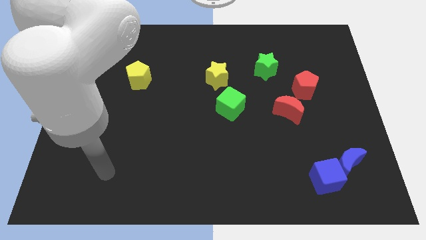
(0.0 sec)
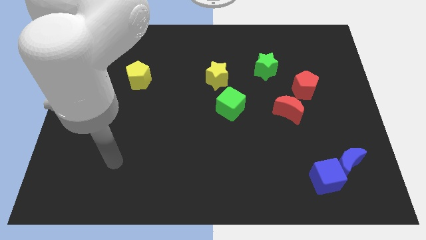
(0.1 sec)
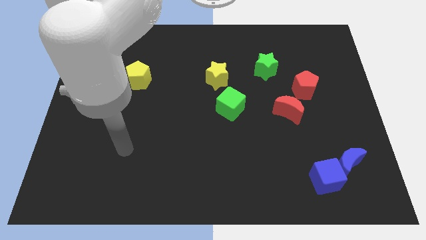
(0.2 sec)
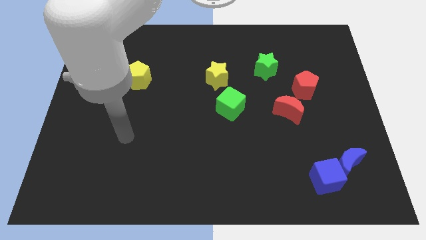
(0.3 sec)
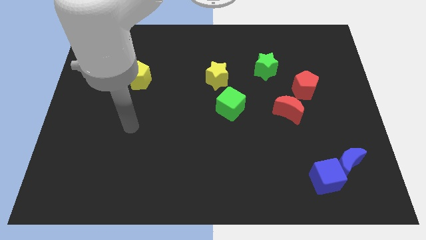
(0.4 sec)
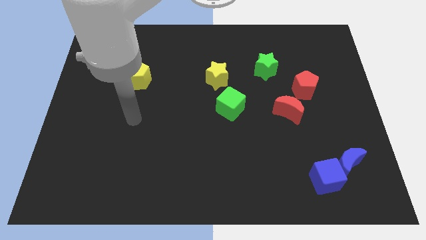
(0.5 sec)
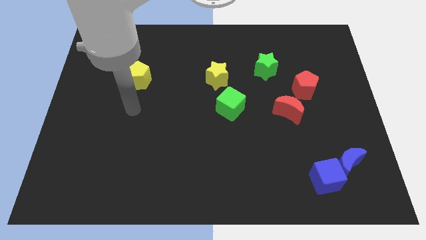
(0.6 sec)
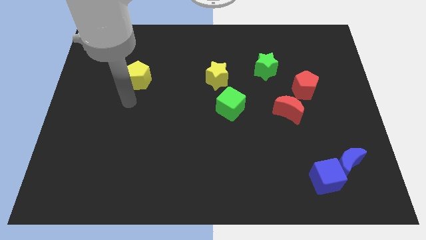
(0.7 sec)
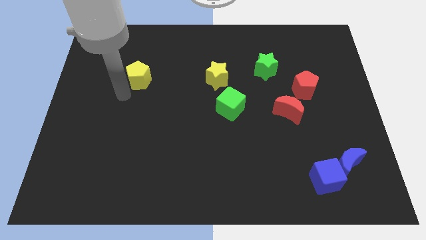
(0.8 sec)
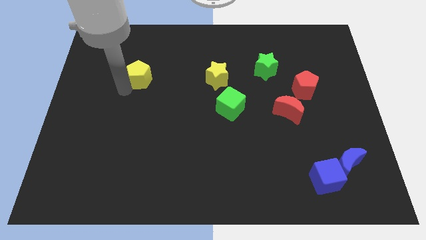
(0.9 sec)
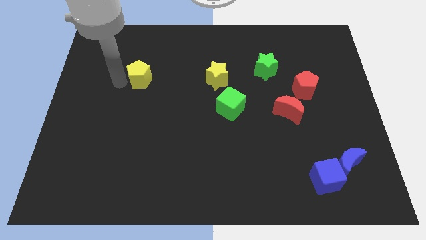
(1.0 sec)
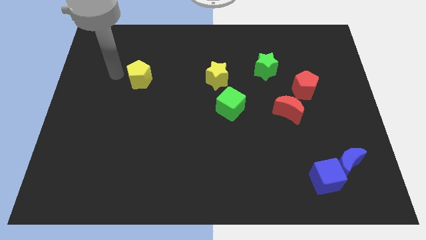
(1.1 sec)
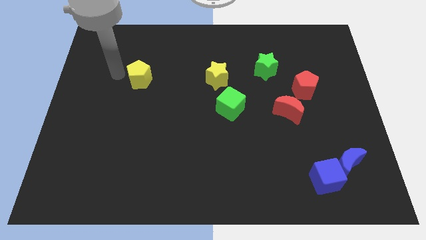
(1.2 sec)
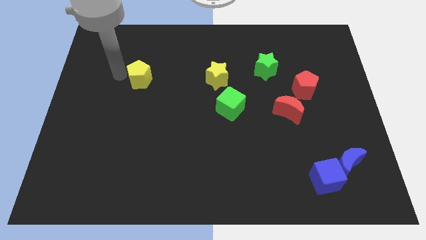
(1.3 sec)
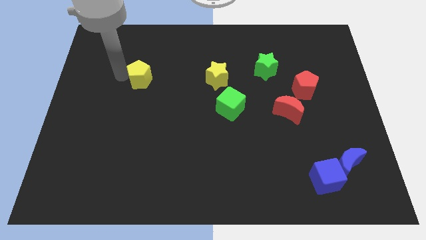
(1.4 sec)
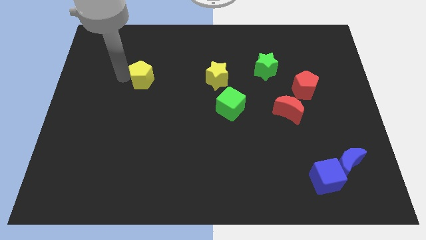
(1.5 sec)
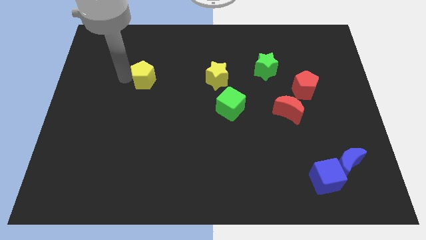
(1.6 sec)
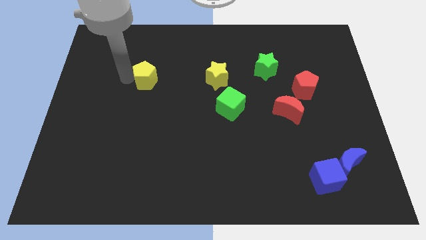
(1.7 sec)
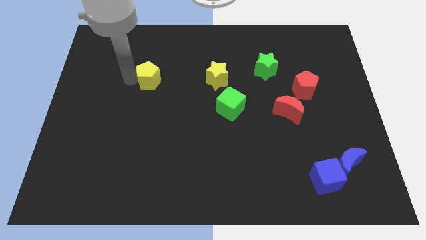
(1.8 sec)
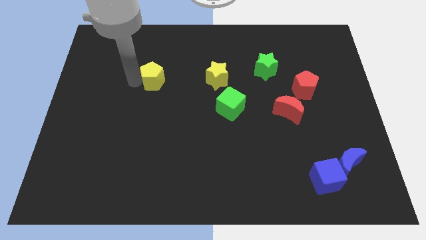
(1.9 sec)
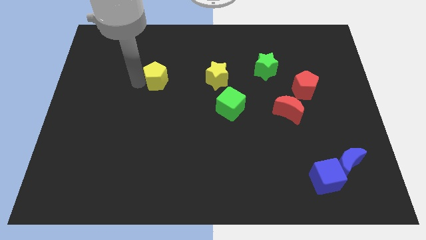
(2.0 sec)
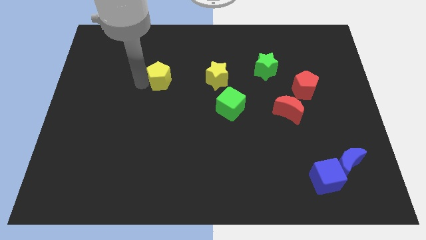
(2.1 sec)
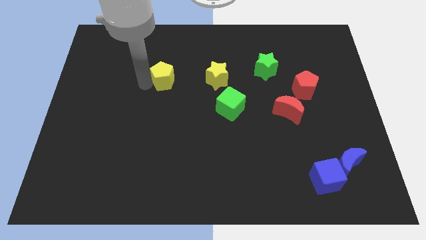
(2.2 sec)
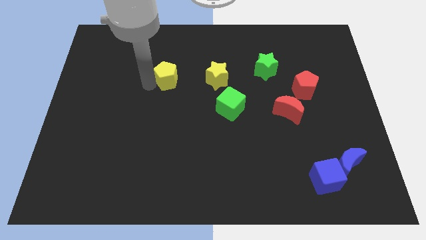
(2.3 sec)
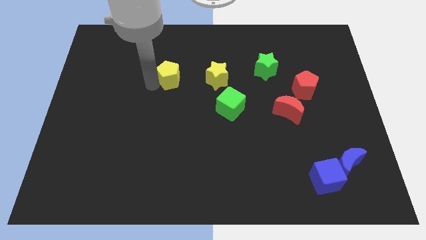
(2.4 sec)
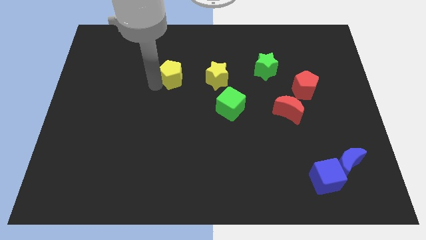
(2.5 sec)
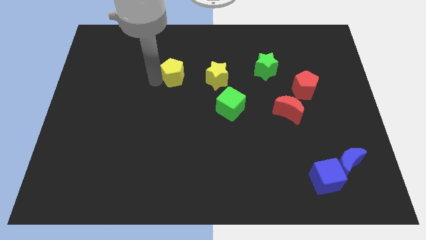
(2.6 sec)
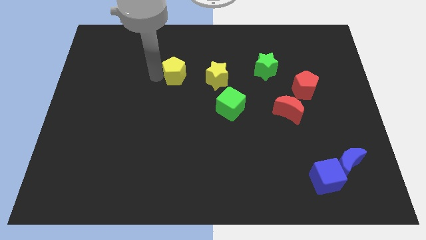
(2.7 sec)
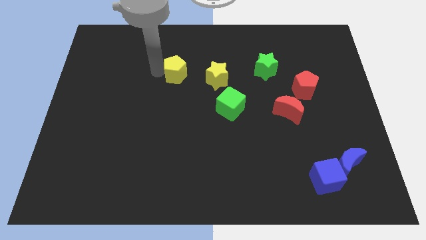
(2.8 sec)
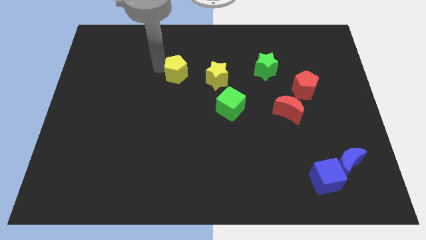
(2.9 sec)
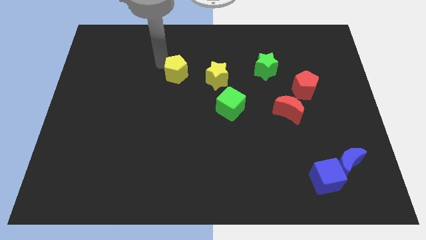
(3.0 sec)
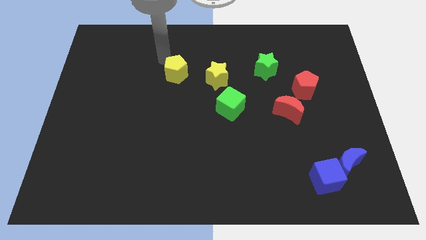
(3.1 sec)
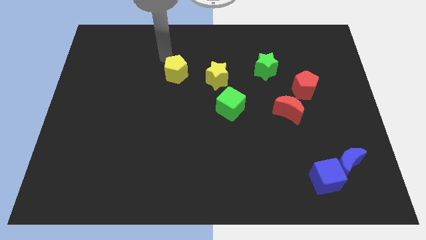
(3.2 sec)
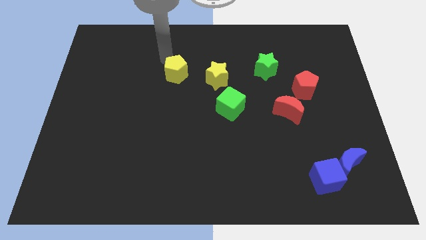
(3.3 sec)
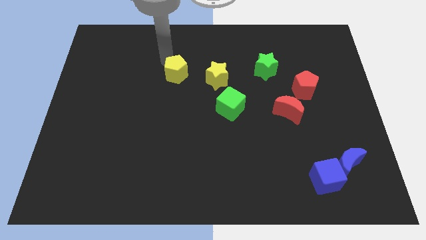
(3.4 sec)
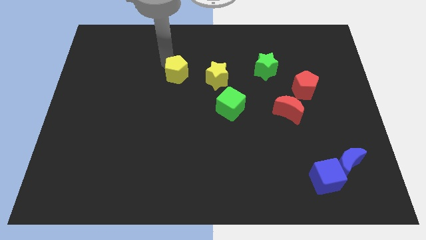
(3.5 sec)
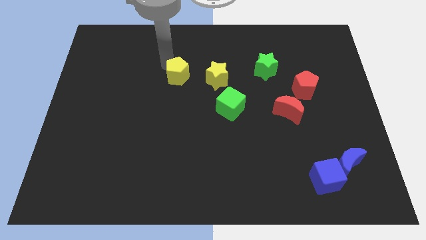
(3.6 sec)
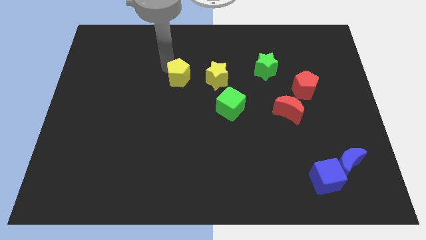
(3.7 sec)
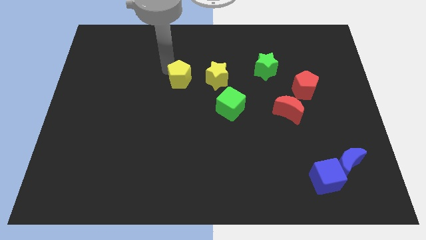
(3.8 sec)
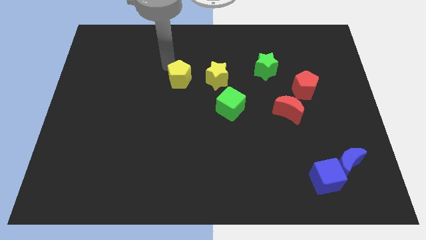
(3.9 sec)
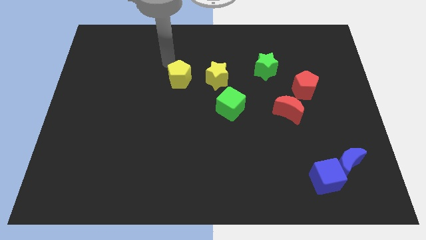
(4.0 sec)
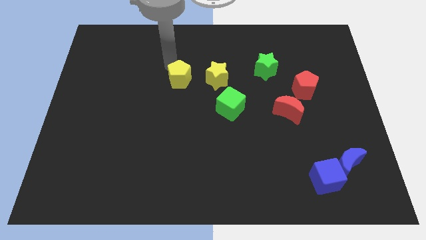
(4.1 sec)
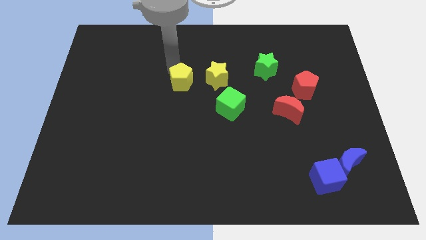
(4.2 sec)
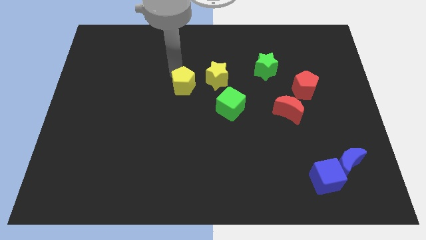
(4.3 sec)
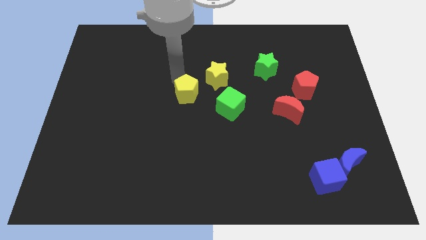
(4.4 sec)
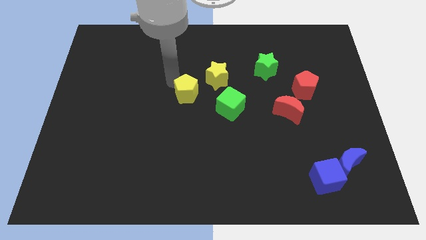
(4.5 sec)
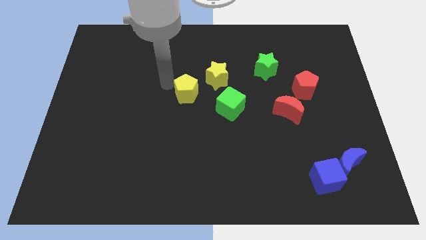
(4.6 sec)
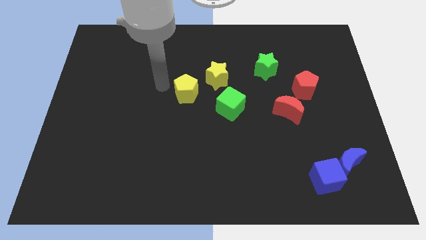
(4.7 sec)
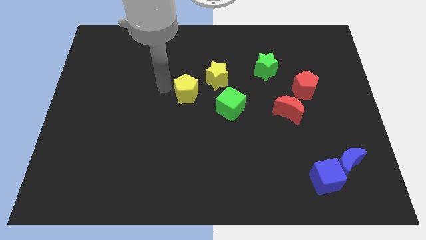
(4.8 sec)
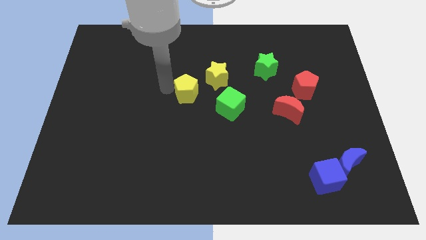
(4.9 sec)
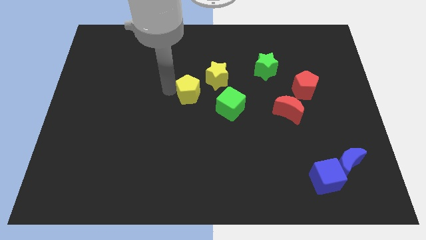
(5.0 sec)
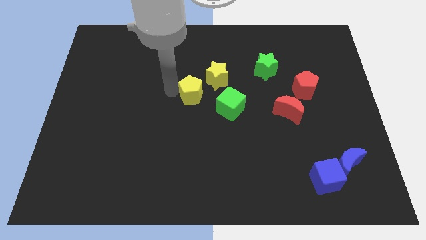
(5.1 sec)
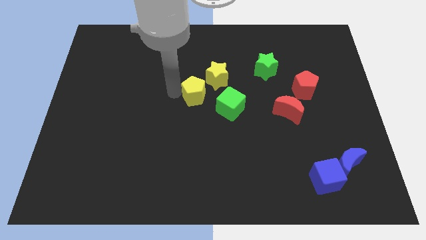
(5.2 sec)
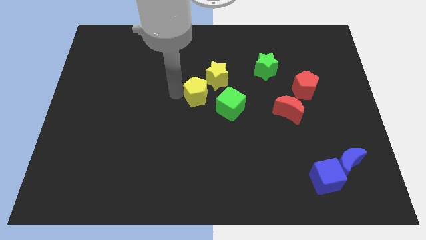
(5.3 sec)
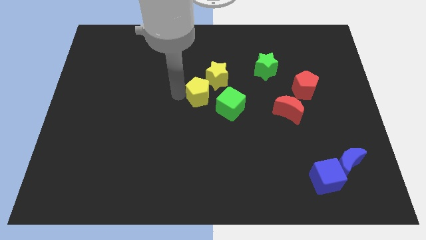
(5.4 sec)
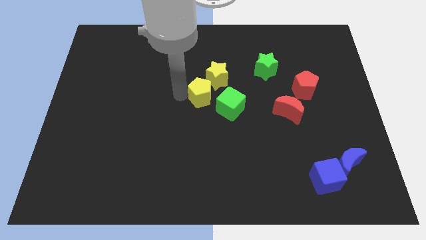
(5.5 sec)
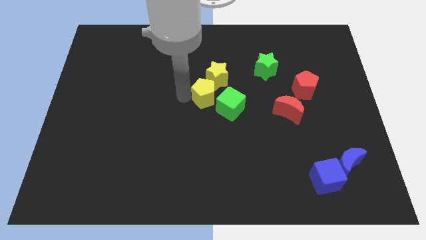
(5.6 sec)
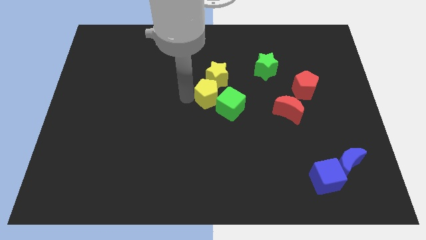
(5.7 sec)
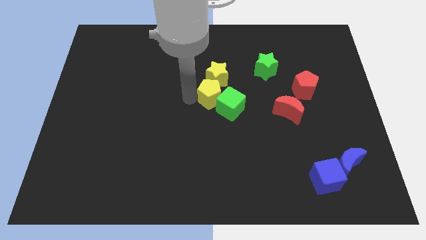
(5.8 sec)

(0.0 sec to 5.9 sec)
put the yellow pentagon towards the green cube

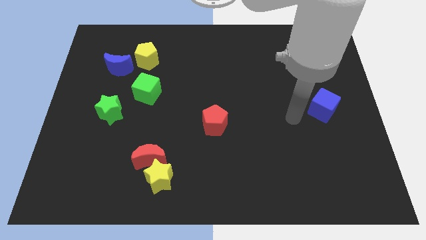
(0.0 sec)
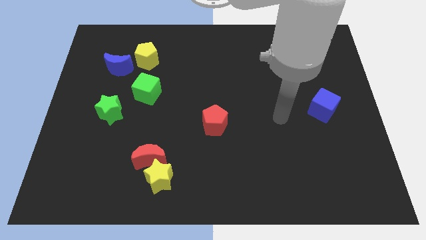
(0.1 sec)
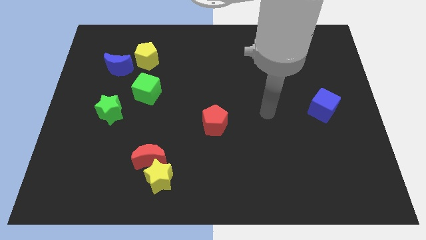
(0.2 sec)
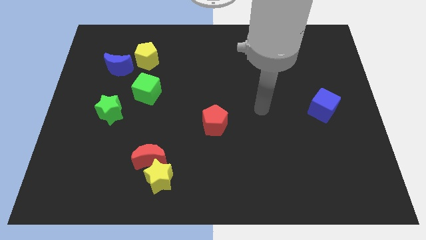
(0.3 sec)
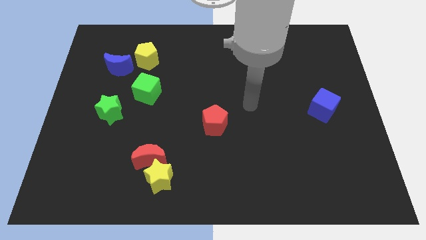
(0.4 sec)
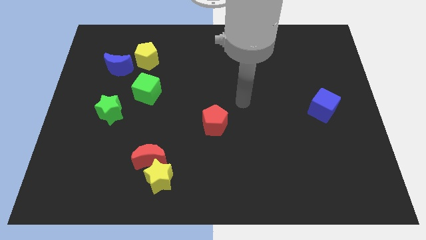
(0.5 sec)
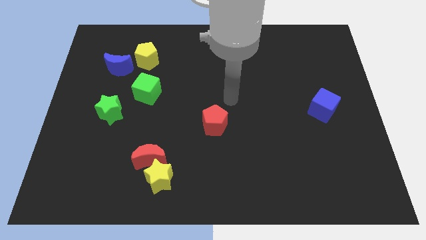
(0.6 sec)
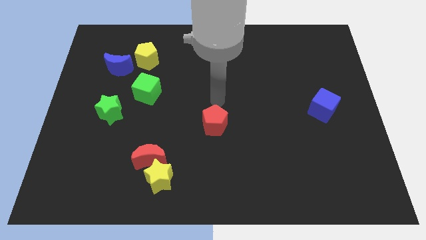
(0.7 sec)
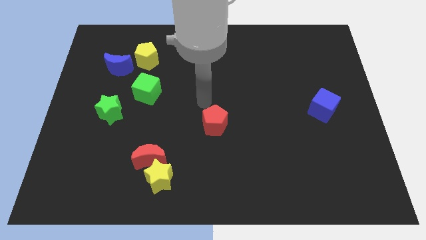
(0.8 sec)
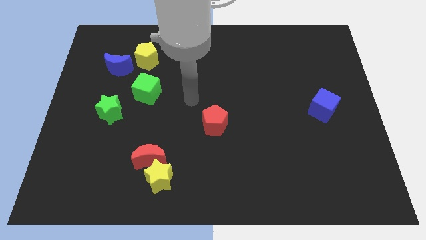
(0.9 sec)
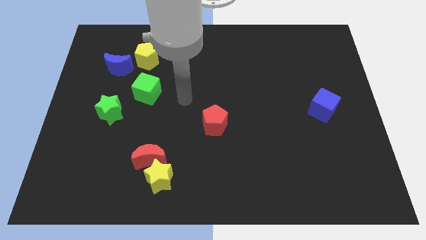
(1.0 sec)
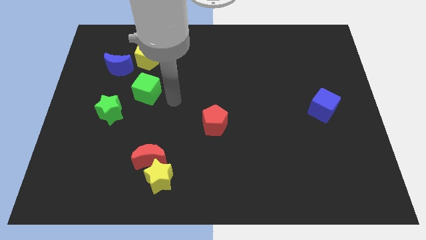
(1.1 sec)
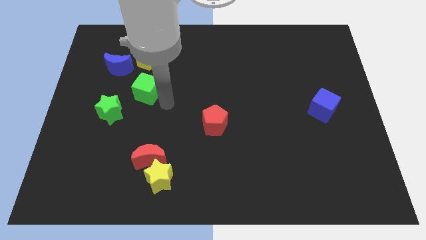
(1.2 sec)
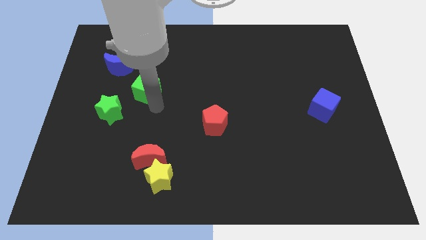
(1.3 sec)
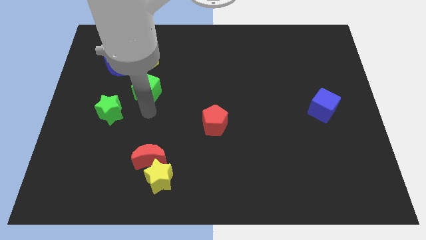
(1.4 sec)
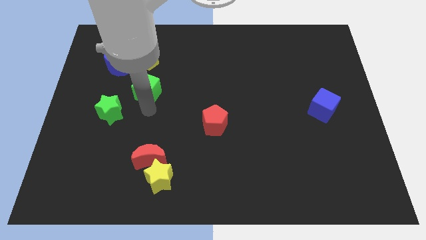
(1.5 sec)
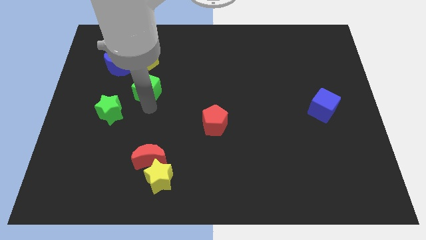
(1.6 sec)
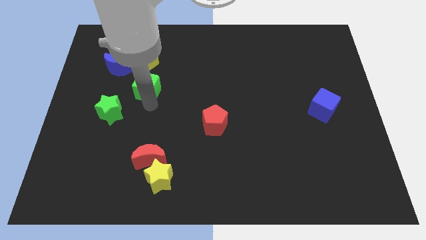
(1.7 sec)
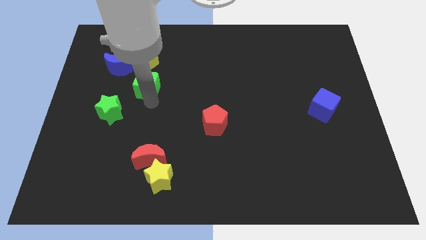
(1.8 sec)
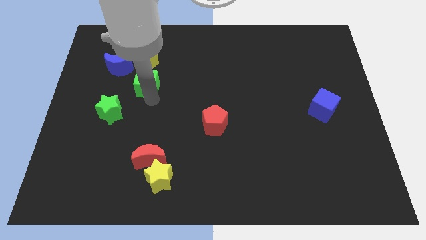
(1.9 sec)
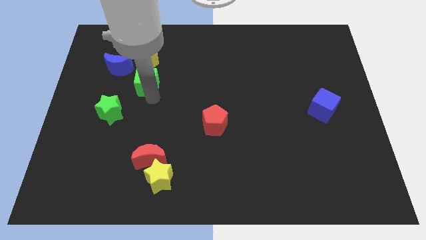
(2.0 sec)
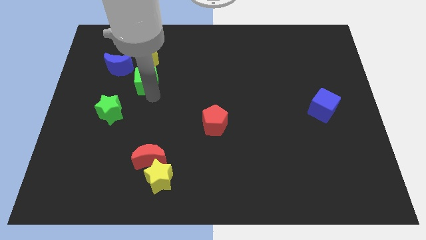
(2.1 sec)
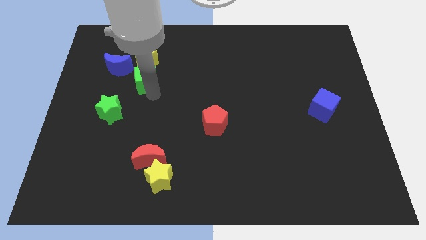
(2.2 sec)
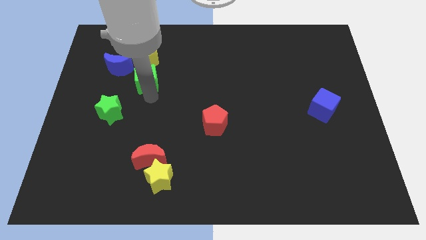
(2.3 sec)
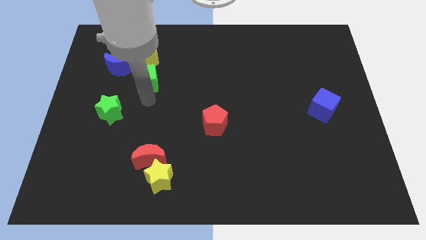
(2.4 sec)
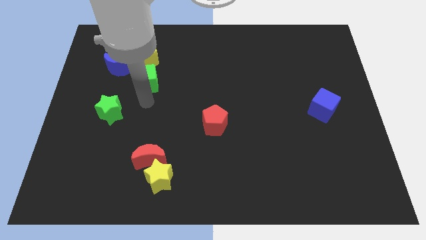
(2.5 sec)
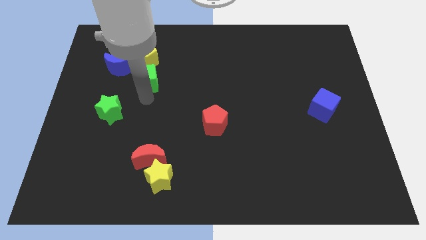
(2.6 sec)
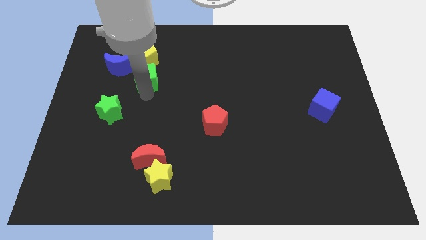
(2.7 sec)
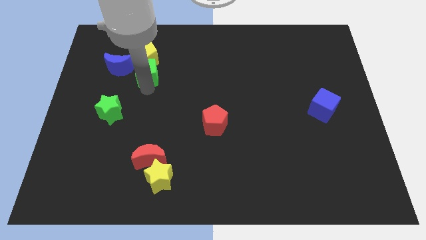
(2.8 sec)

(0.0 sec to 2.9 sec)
move the green cube next to the yellow pentagon
